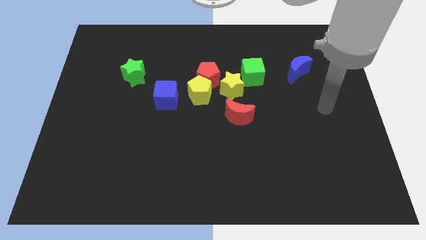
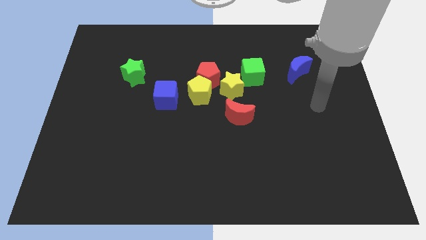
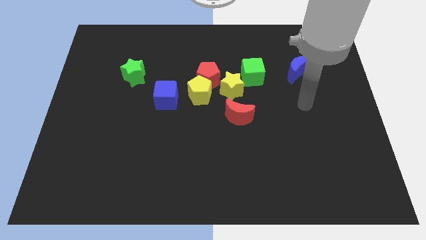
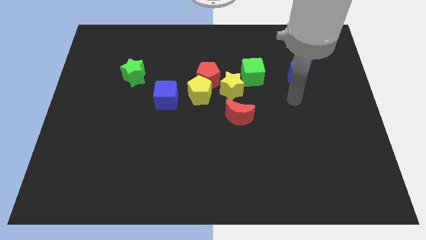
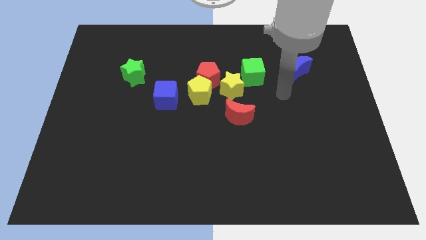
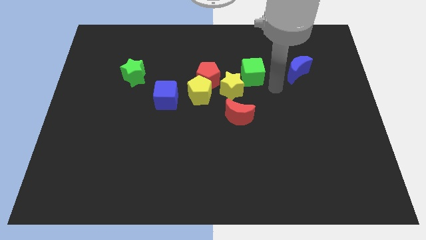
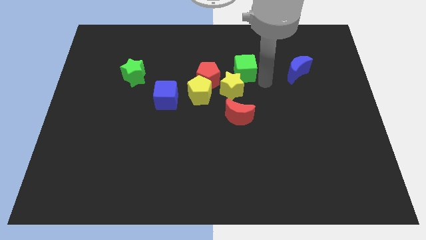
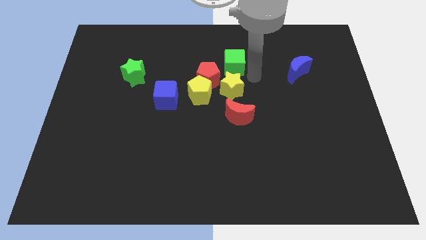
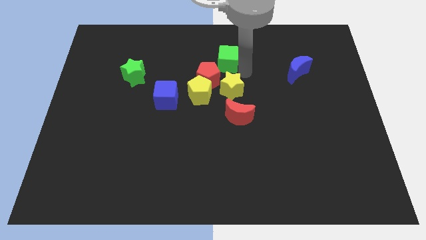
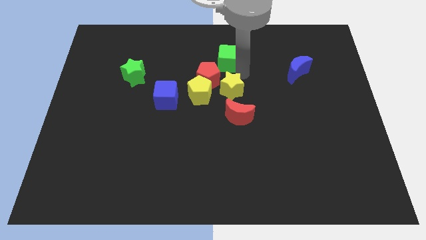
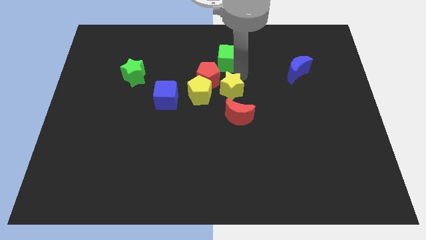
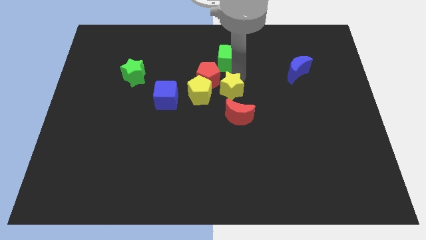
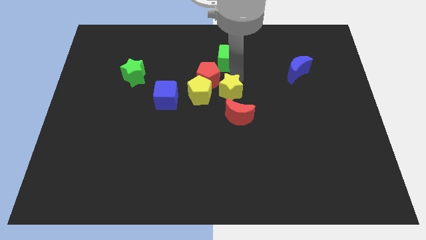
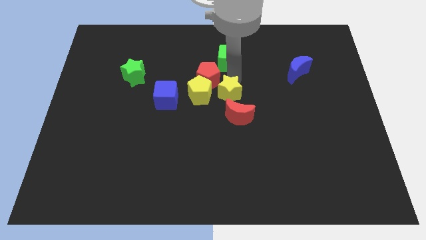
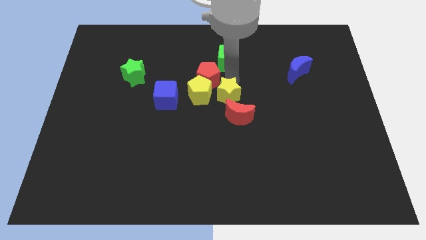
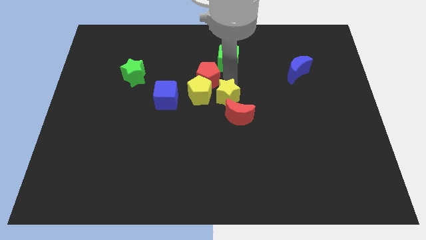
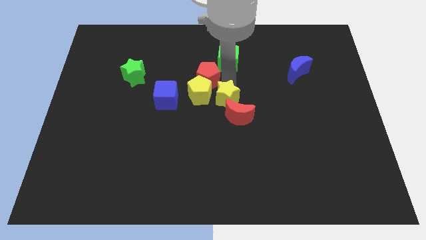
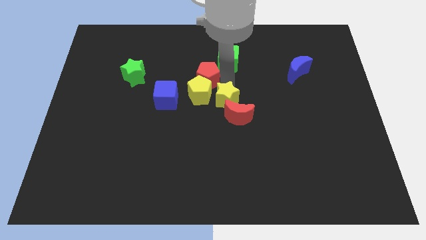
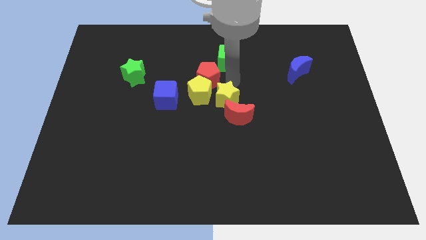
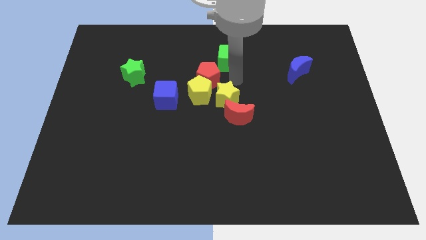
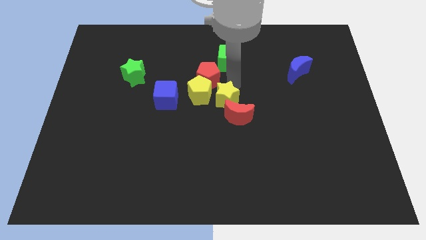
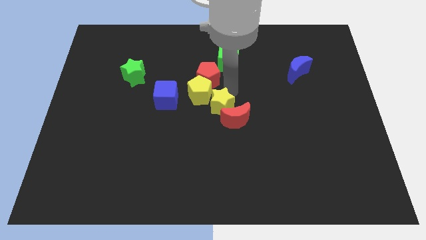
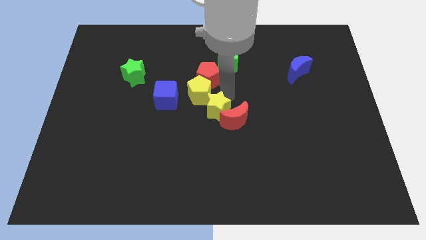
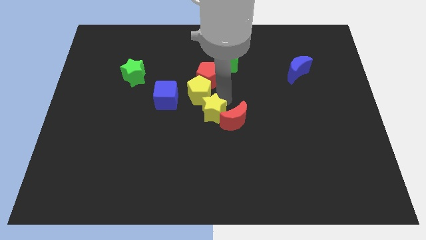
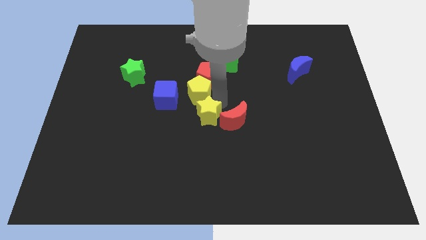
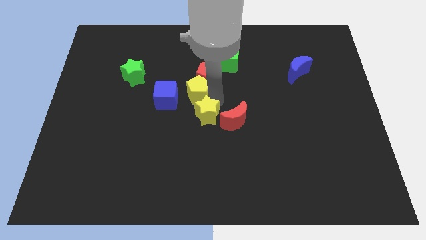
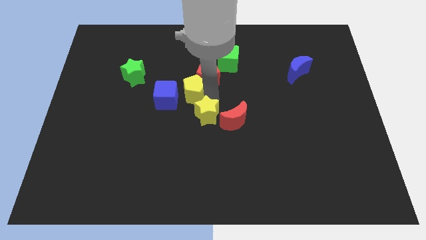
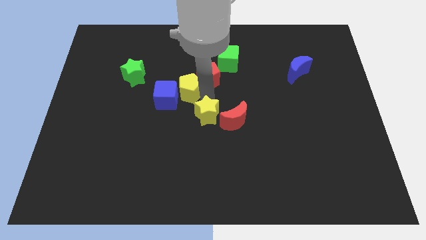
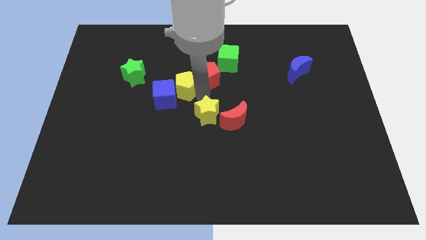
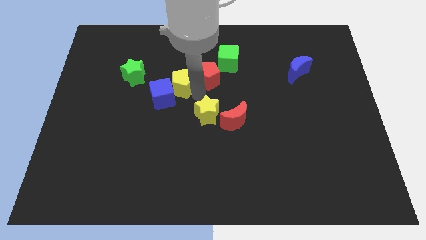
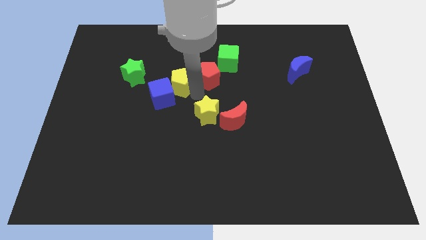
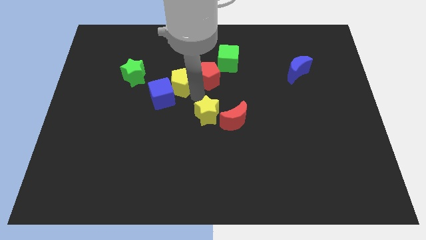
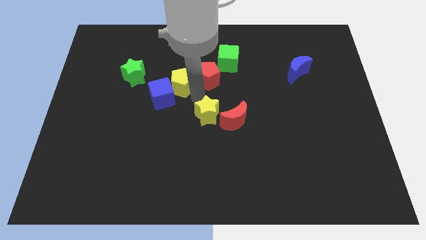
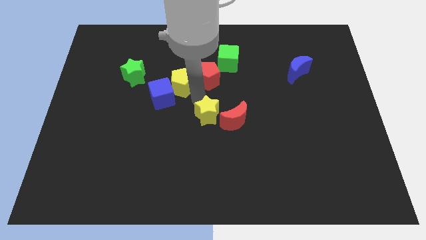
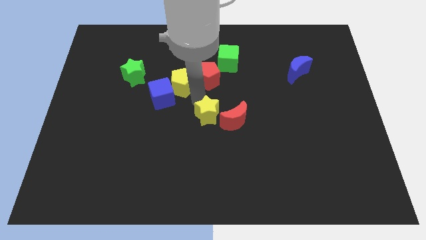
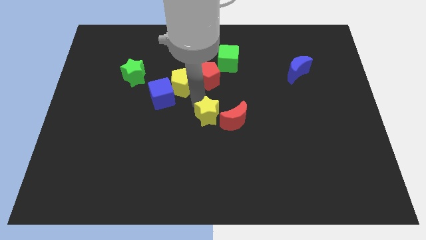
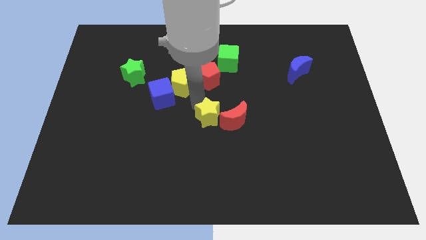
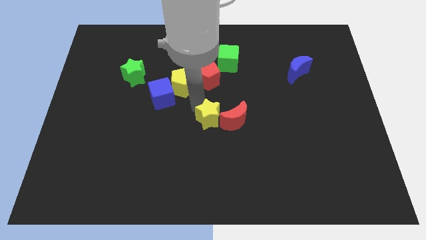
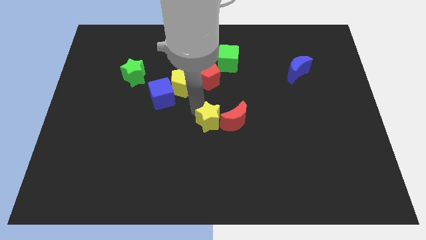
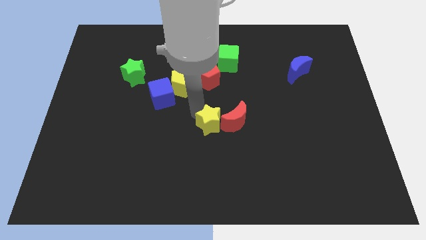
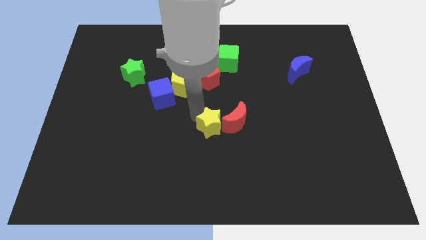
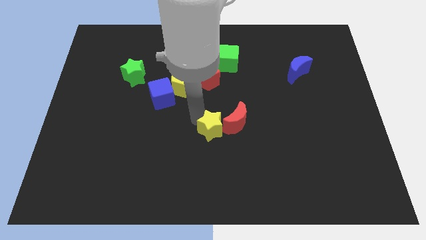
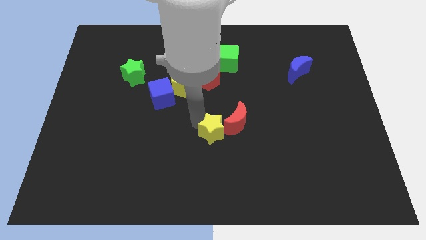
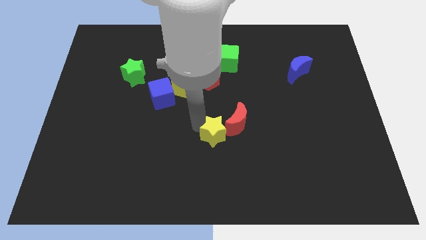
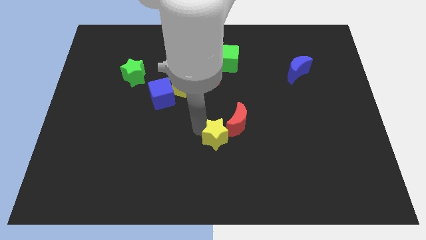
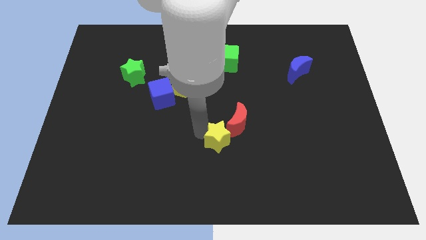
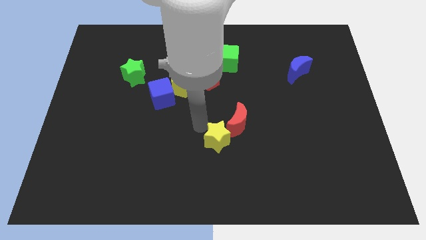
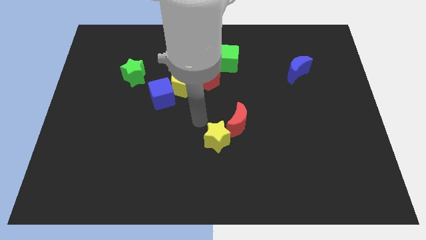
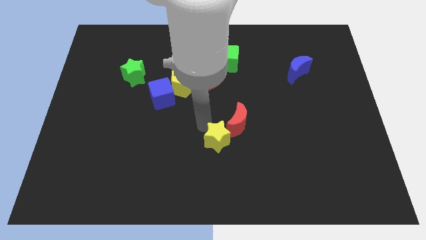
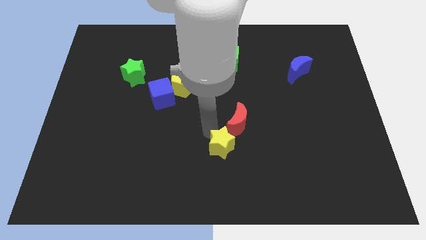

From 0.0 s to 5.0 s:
put the yellow star to the bottom of the red moon

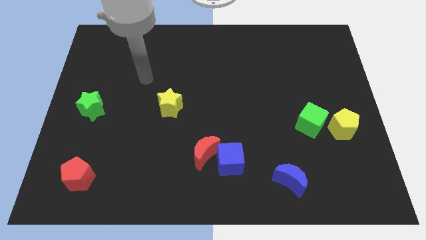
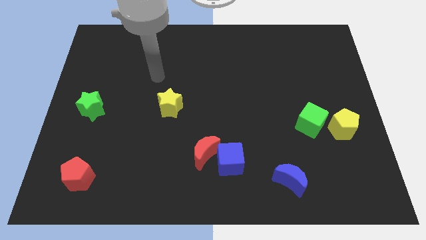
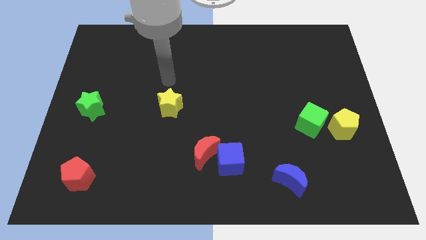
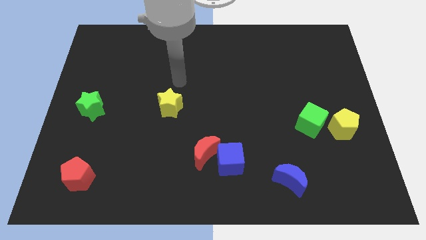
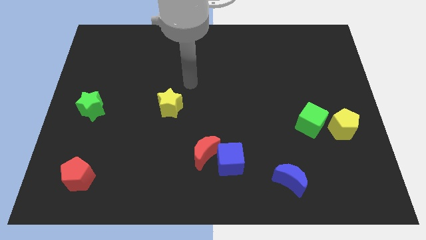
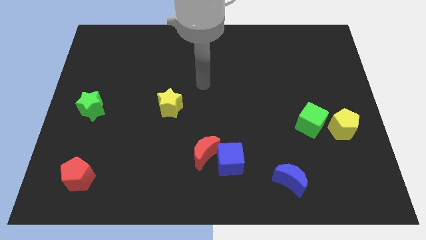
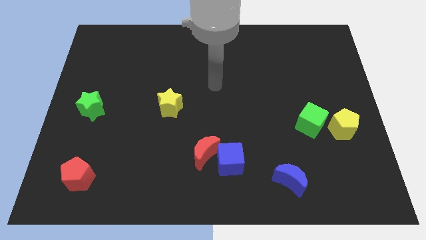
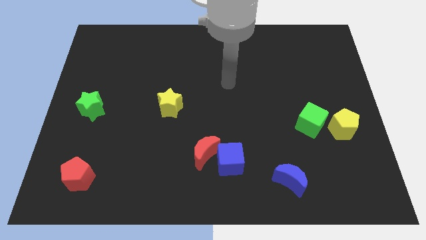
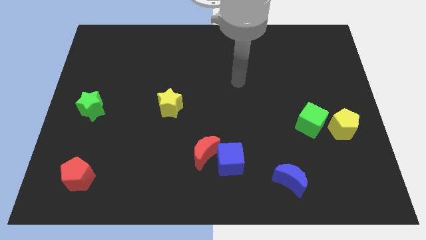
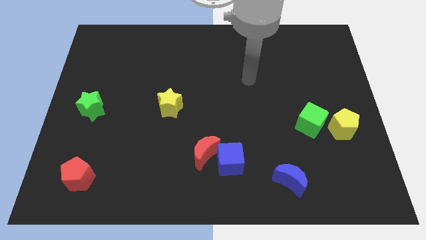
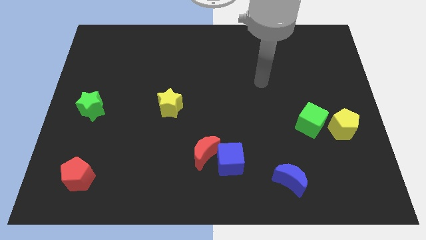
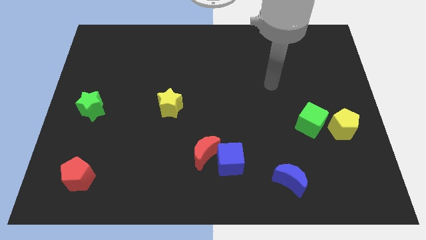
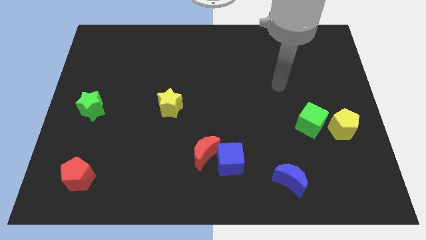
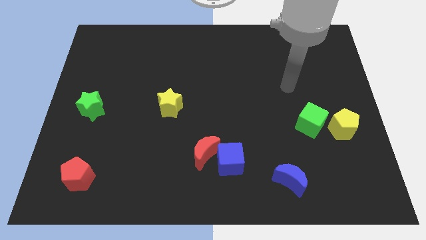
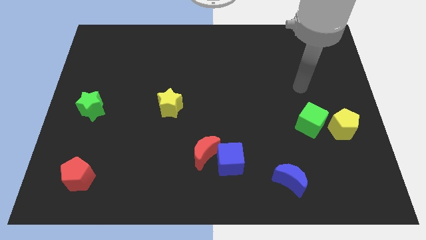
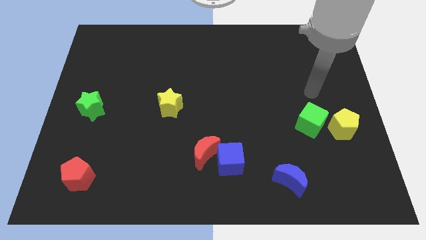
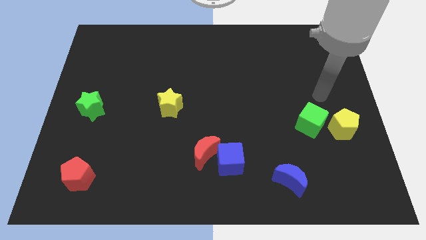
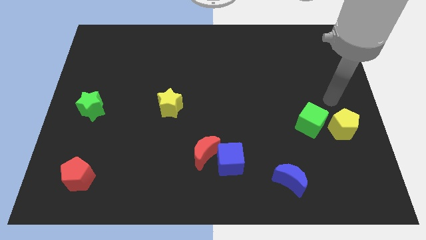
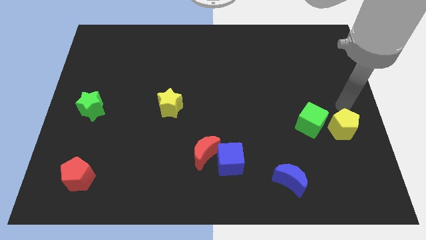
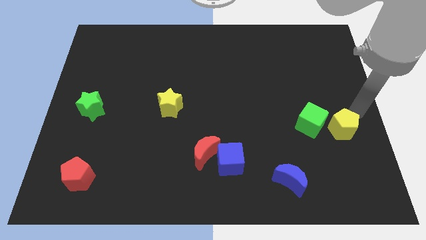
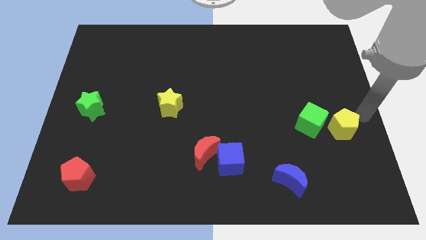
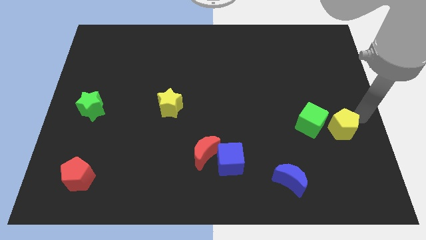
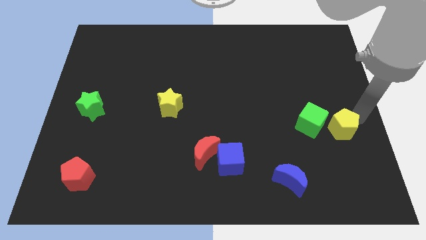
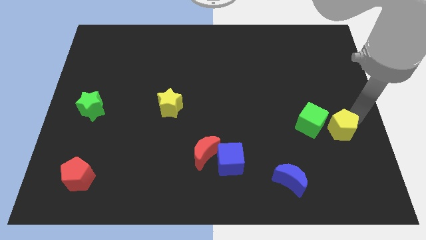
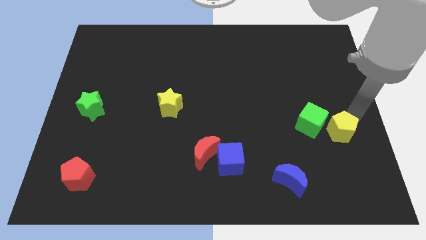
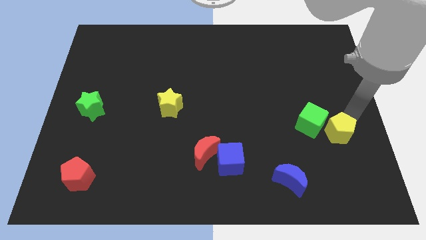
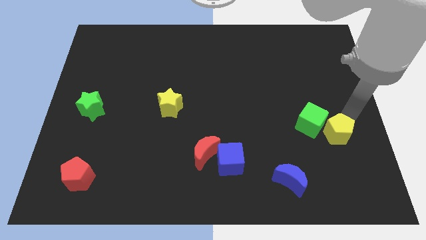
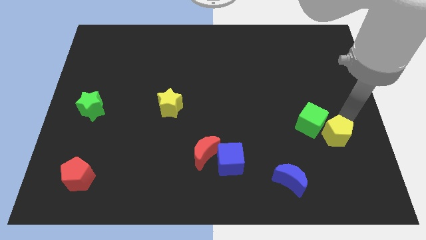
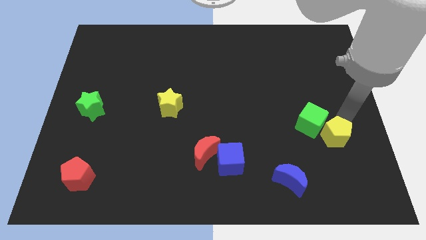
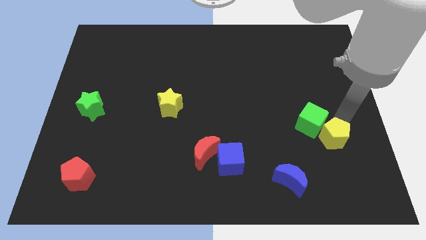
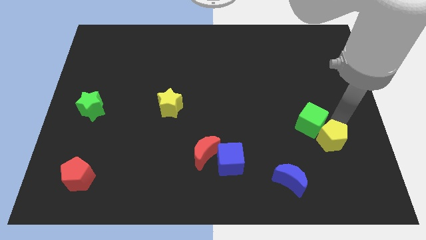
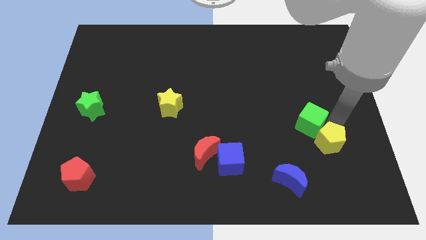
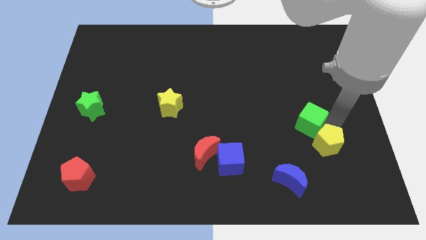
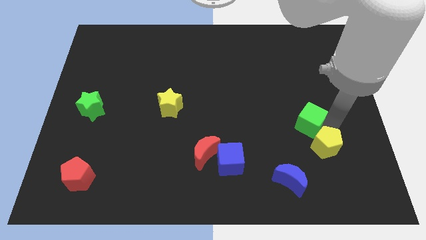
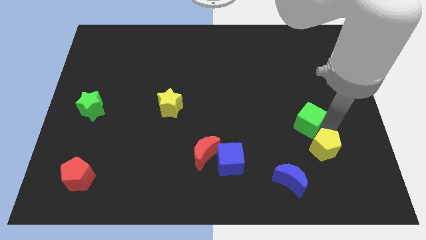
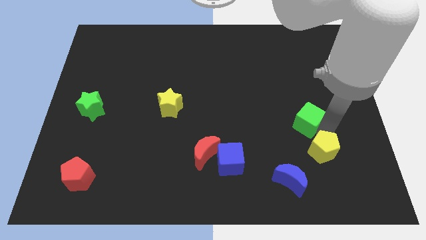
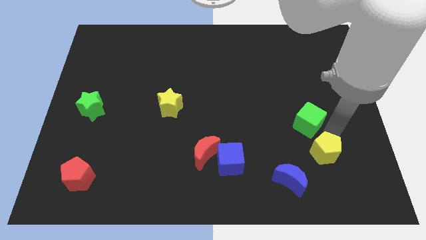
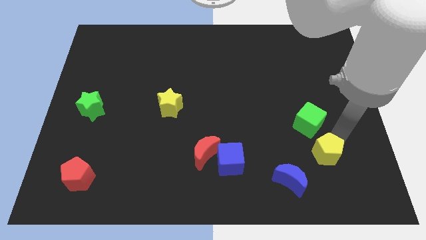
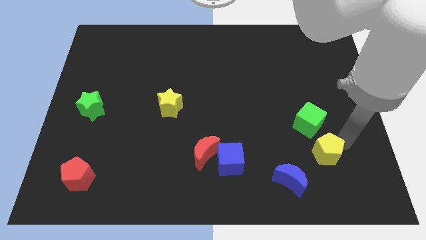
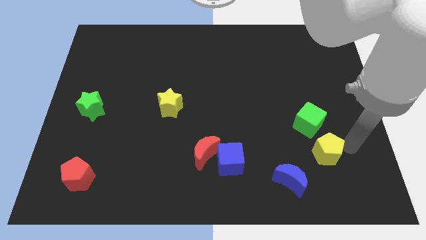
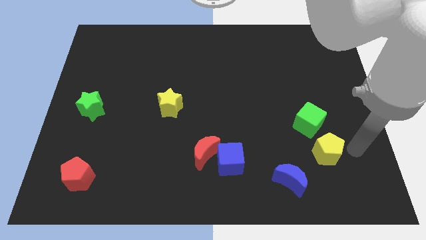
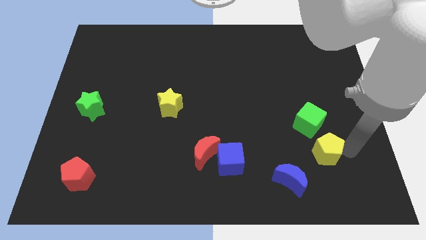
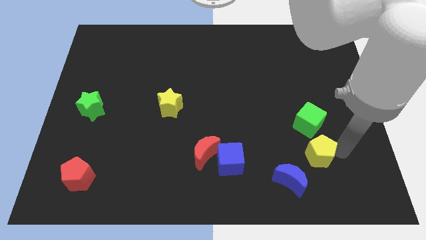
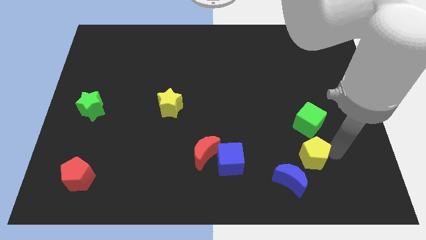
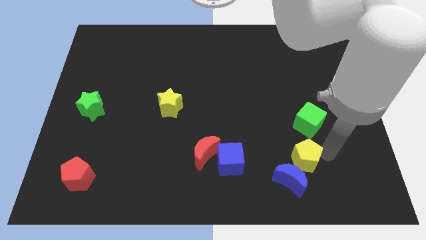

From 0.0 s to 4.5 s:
slide the yellow pentagon to the right of the blue cube
